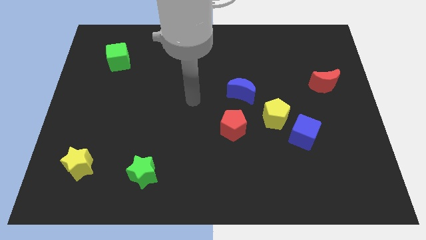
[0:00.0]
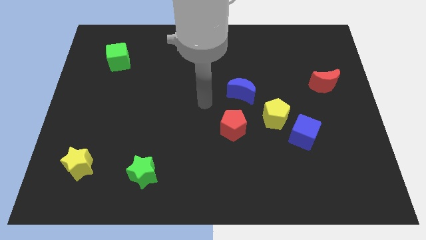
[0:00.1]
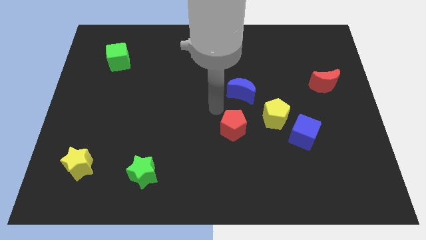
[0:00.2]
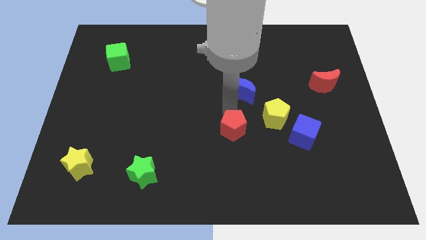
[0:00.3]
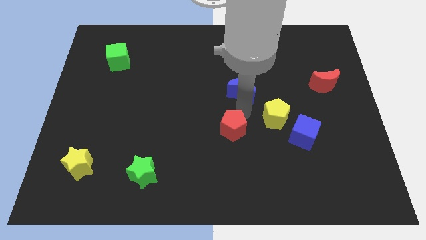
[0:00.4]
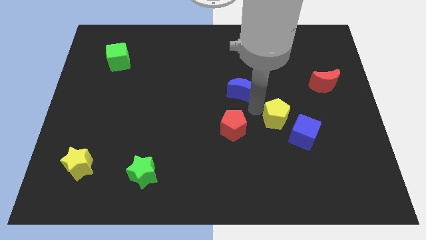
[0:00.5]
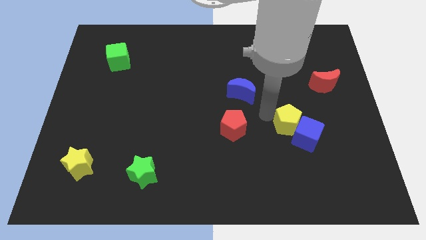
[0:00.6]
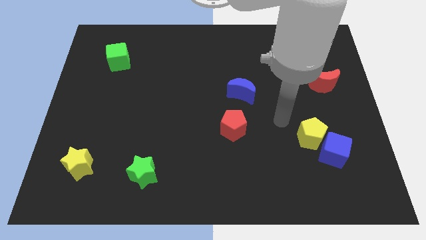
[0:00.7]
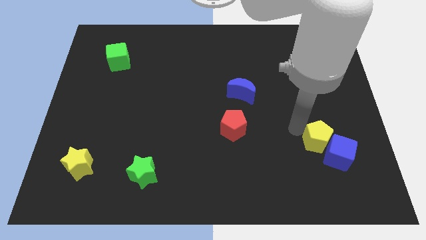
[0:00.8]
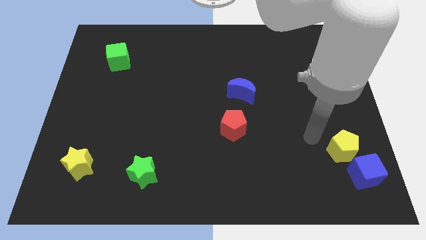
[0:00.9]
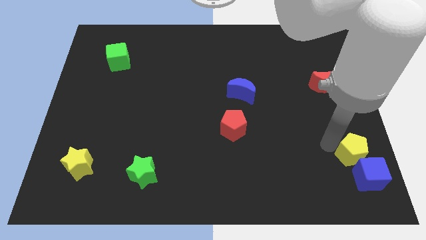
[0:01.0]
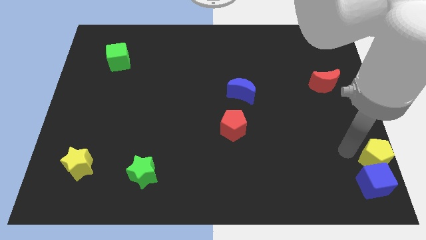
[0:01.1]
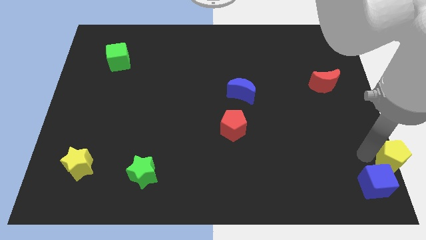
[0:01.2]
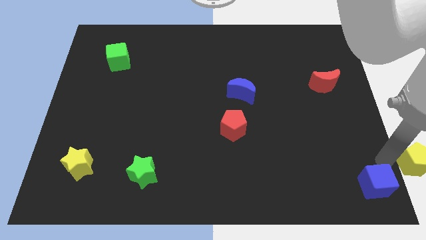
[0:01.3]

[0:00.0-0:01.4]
separate the blue cube from the yellow pentagon

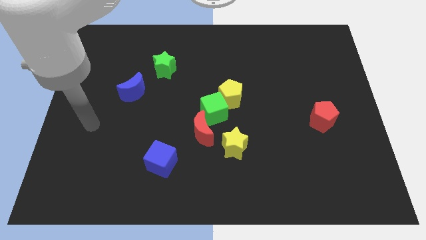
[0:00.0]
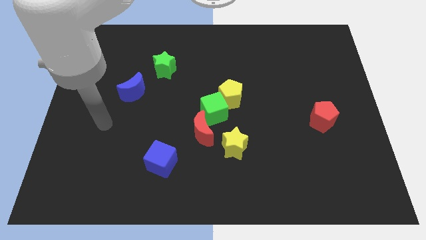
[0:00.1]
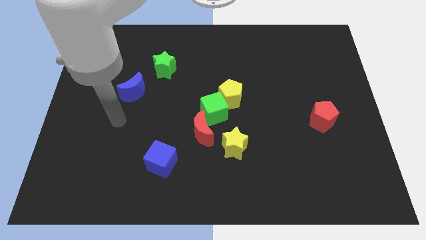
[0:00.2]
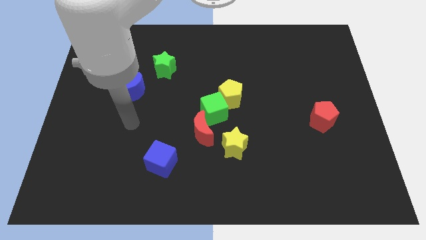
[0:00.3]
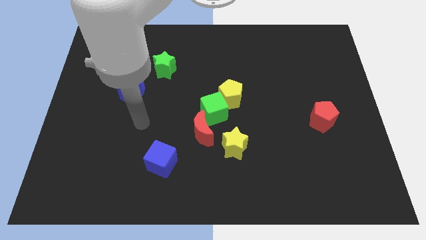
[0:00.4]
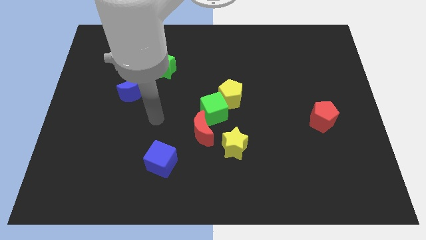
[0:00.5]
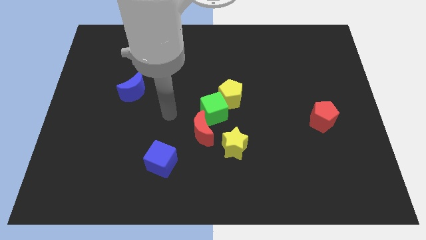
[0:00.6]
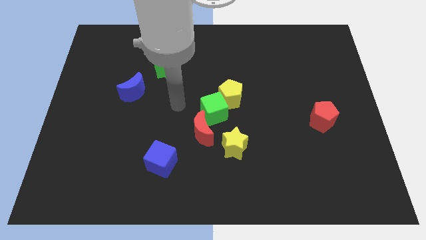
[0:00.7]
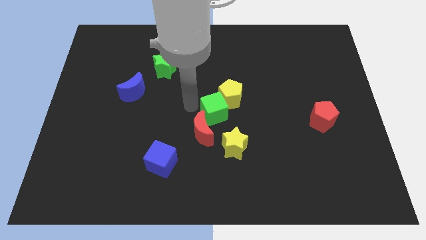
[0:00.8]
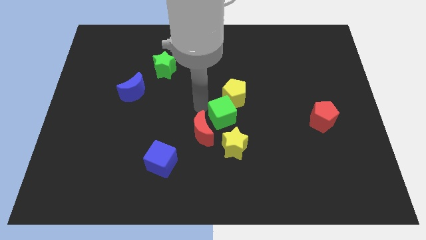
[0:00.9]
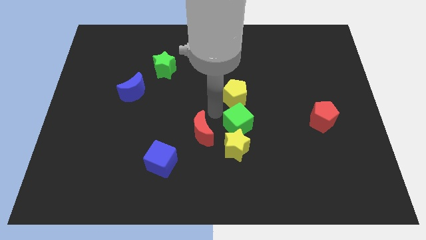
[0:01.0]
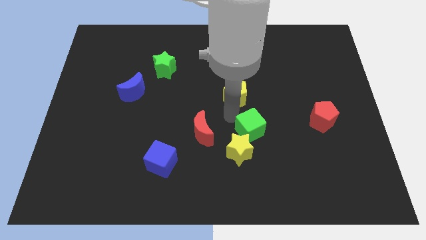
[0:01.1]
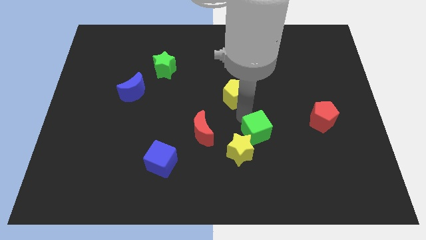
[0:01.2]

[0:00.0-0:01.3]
separate the yellow pentagon from the green cube

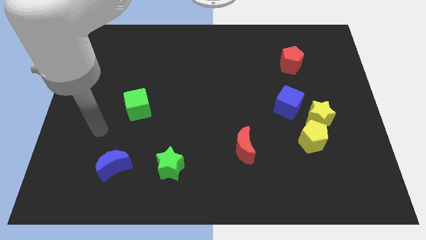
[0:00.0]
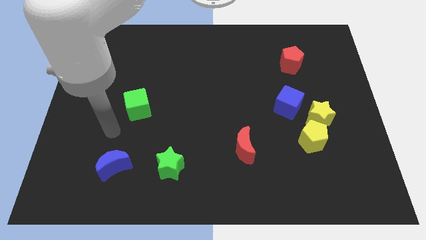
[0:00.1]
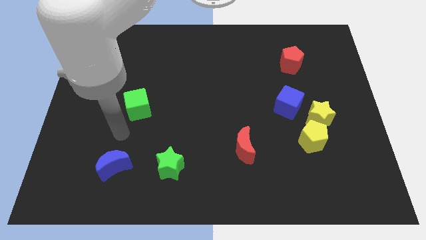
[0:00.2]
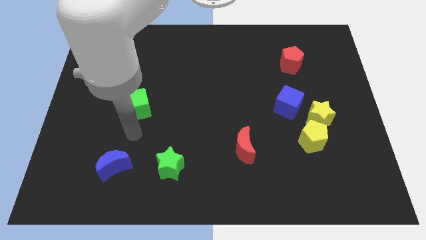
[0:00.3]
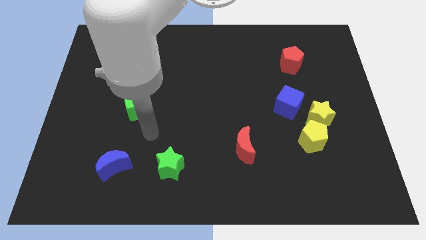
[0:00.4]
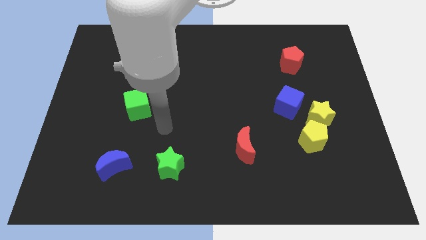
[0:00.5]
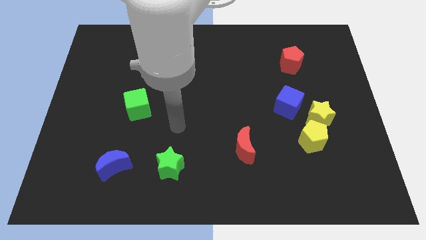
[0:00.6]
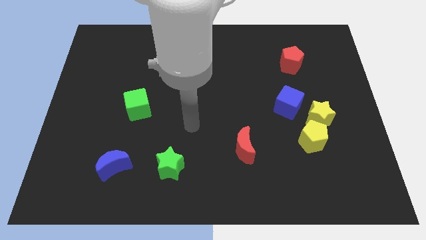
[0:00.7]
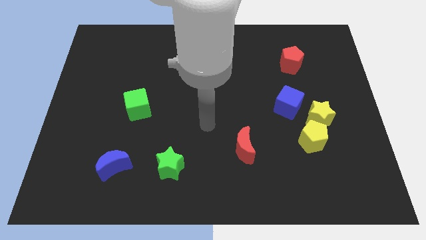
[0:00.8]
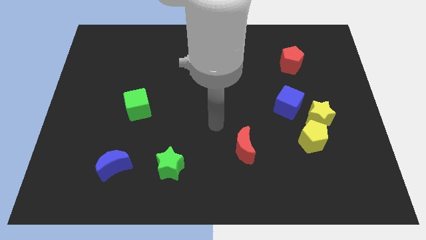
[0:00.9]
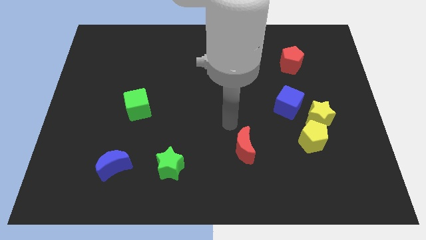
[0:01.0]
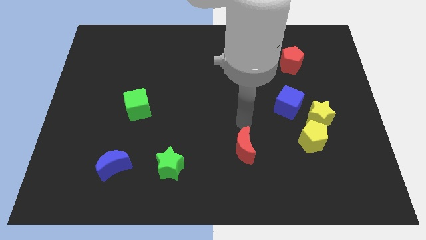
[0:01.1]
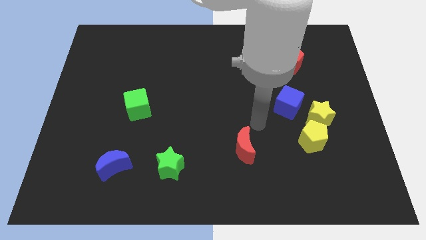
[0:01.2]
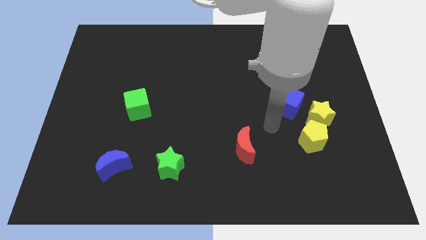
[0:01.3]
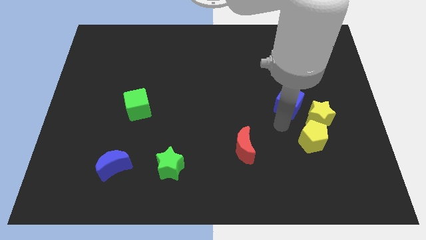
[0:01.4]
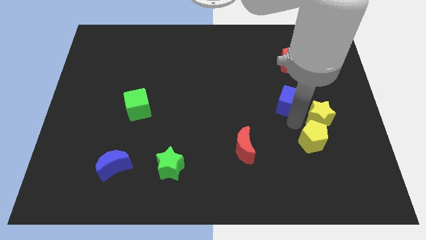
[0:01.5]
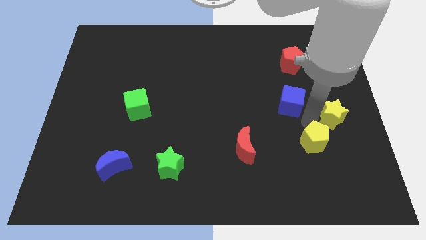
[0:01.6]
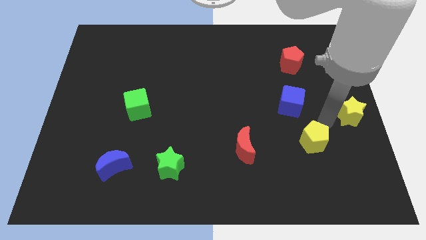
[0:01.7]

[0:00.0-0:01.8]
move the yellow pentagon away from the yellow star

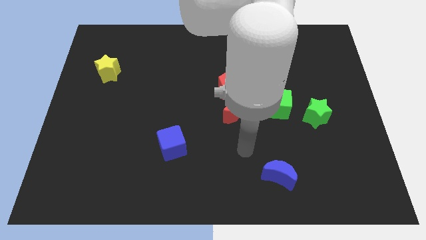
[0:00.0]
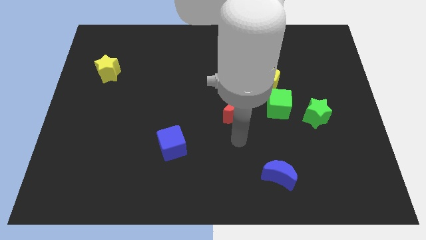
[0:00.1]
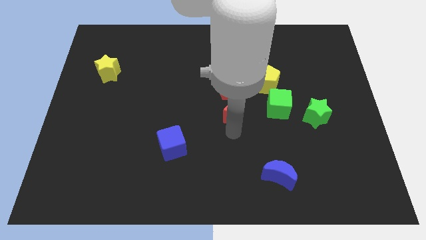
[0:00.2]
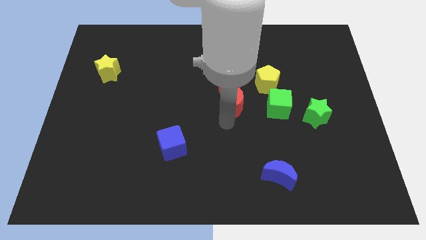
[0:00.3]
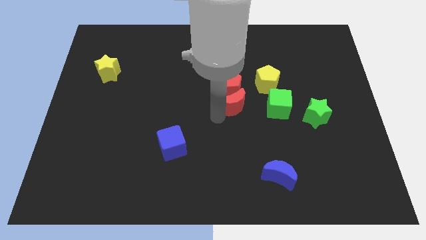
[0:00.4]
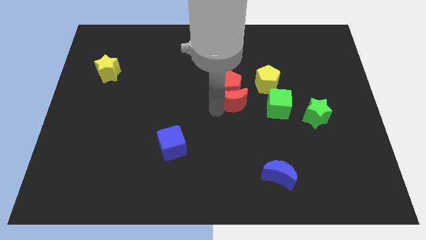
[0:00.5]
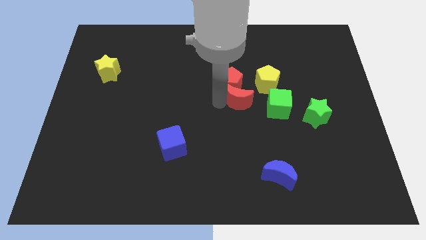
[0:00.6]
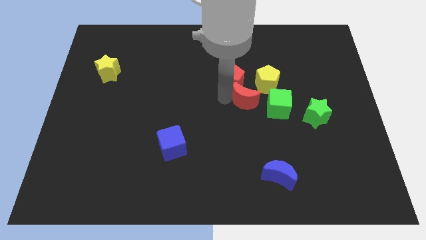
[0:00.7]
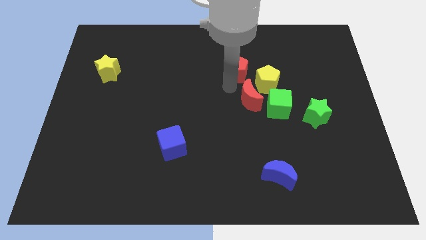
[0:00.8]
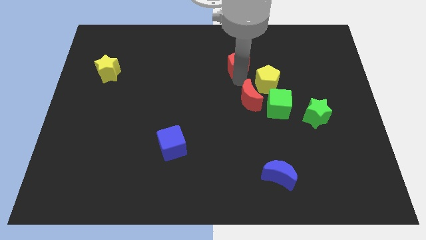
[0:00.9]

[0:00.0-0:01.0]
separate the red moon from the red pentagon

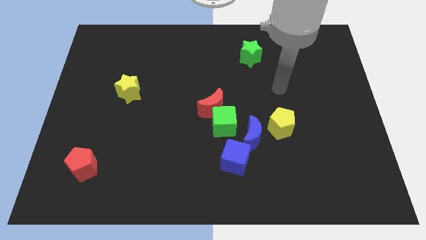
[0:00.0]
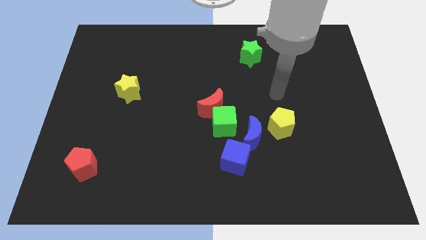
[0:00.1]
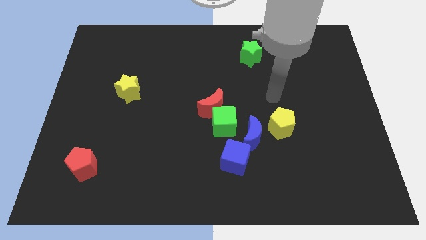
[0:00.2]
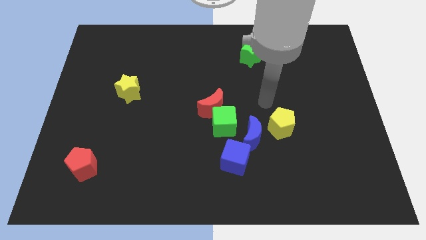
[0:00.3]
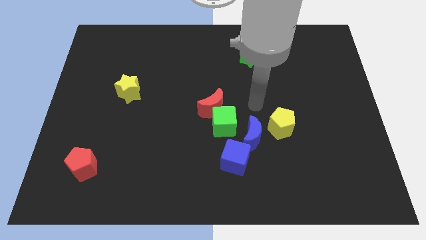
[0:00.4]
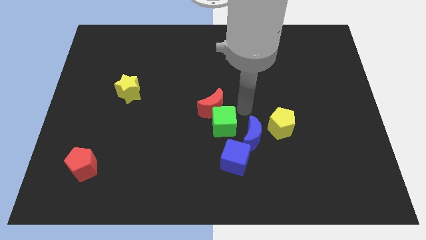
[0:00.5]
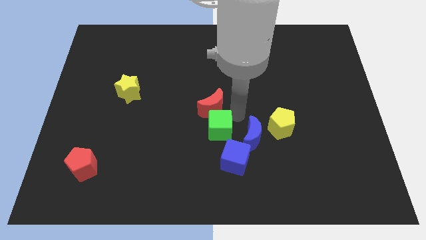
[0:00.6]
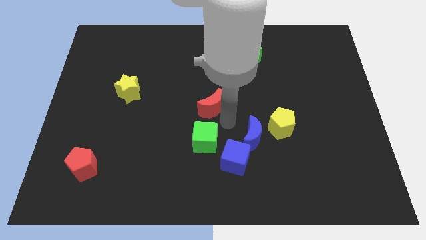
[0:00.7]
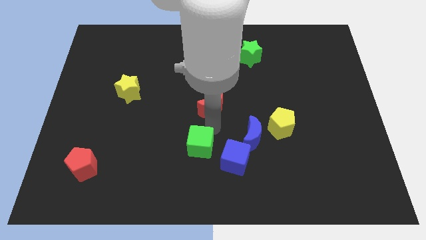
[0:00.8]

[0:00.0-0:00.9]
pull the red moon apart from the green cube

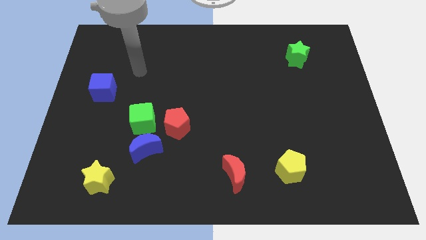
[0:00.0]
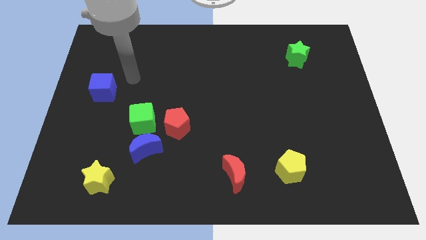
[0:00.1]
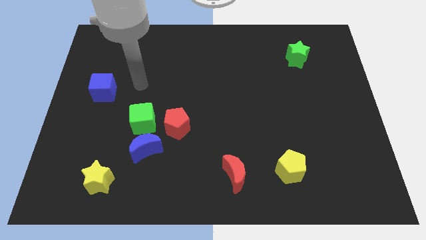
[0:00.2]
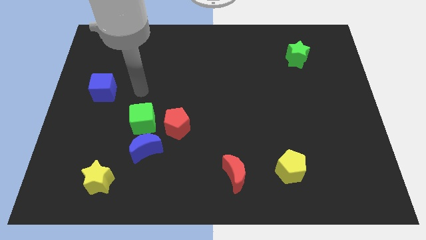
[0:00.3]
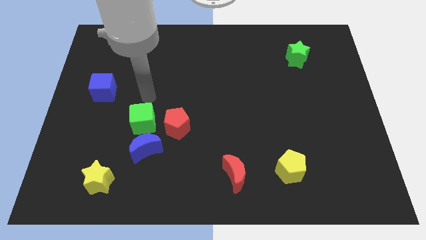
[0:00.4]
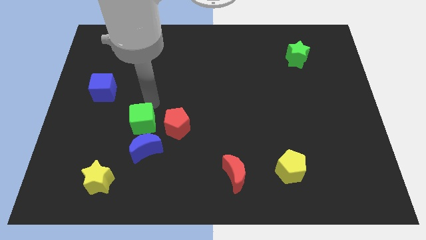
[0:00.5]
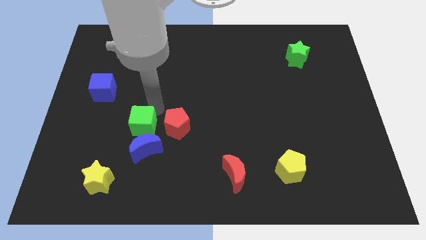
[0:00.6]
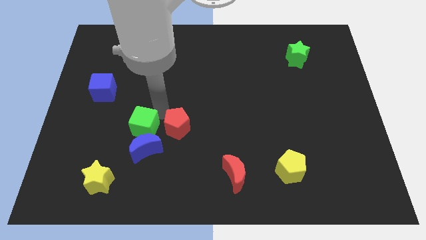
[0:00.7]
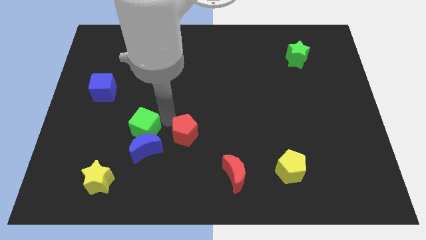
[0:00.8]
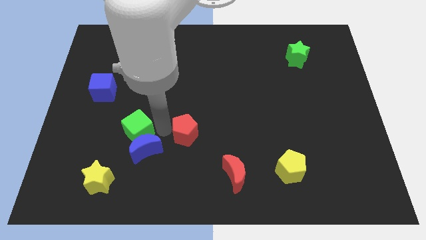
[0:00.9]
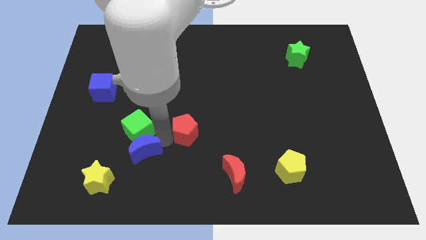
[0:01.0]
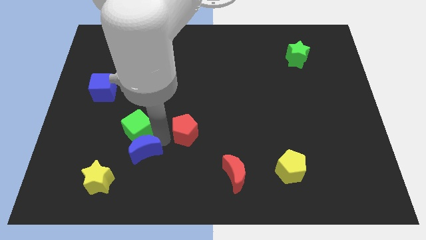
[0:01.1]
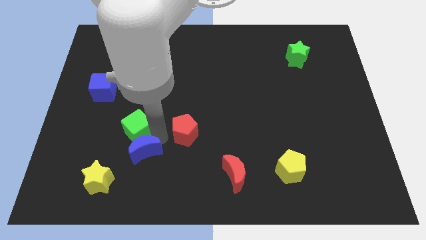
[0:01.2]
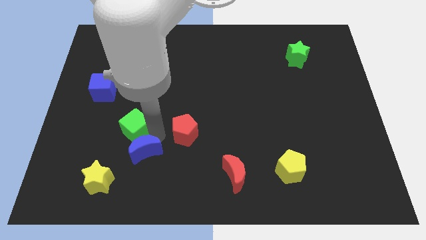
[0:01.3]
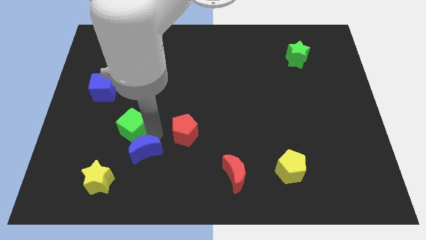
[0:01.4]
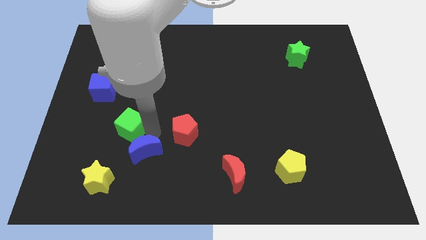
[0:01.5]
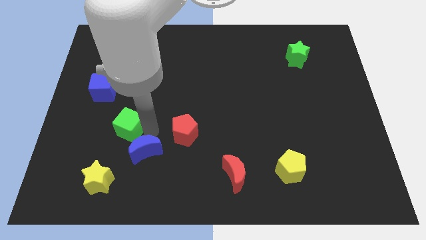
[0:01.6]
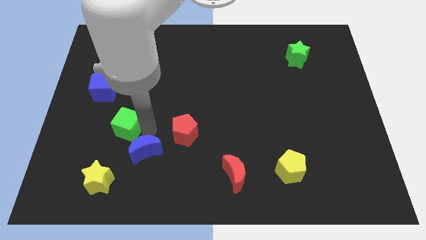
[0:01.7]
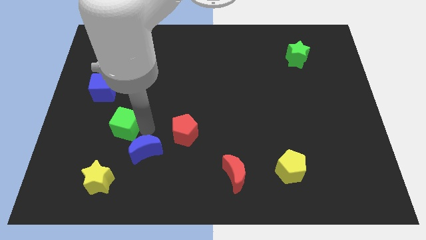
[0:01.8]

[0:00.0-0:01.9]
move the green cube away from the blue moon and red pentagon

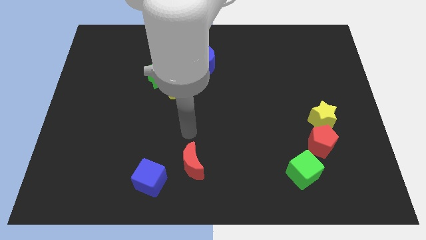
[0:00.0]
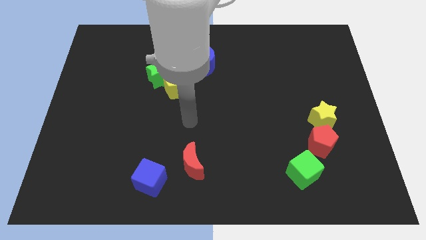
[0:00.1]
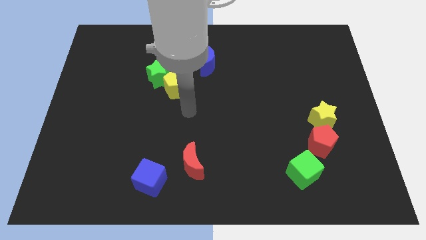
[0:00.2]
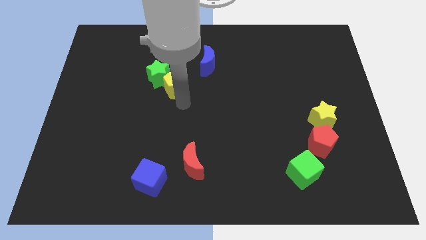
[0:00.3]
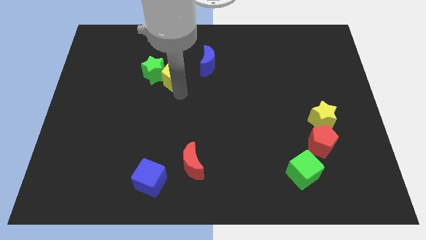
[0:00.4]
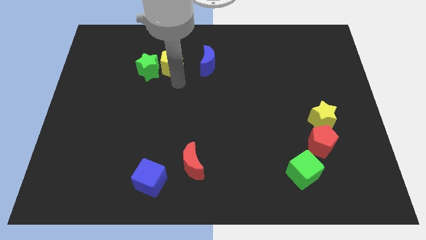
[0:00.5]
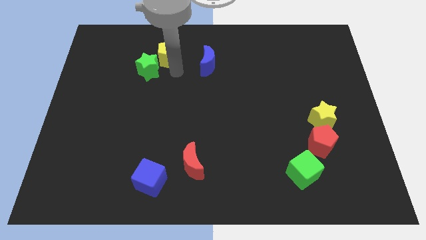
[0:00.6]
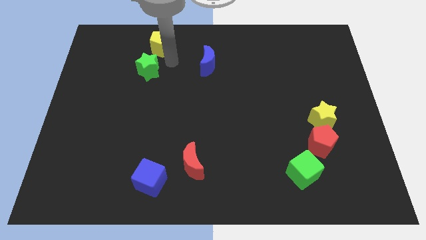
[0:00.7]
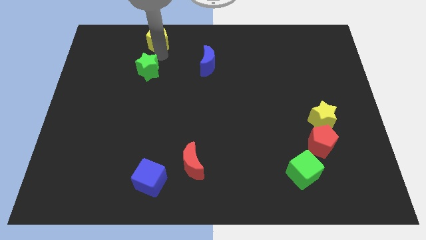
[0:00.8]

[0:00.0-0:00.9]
separate the green star from the yellow pentagon
